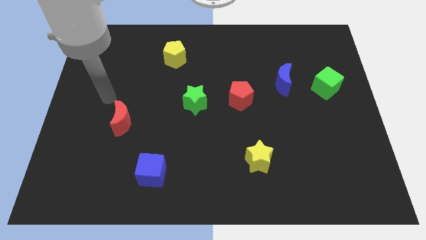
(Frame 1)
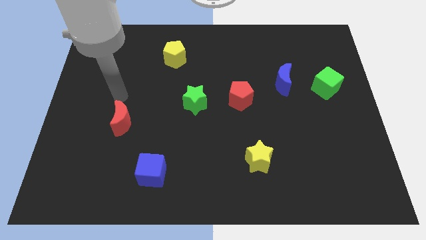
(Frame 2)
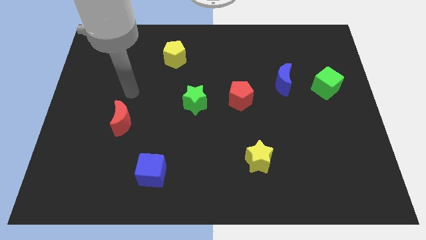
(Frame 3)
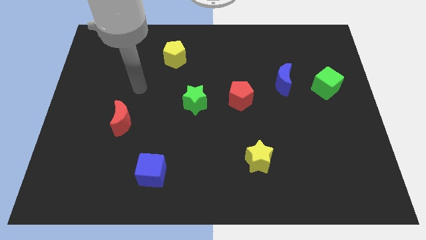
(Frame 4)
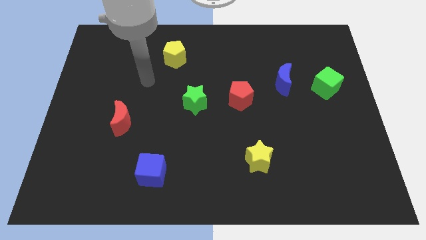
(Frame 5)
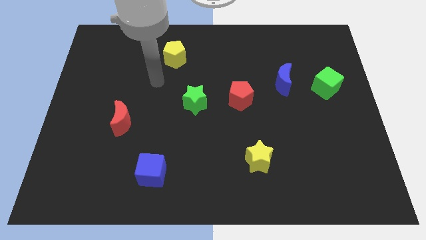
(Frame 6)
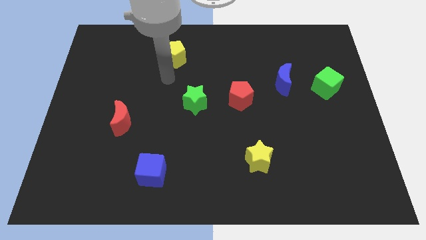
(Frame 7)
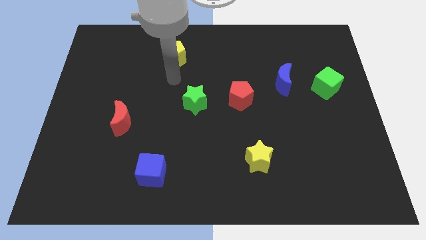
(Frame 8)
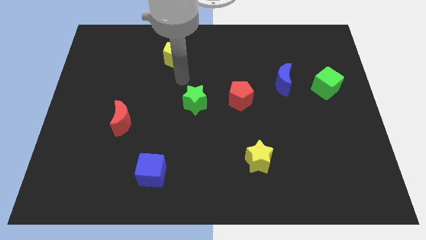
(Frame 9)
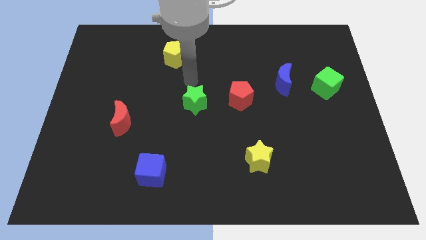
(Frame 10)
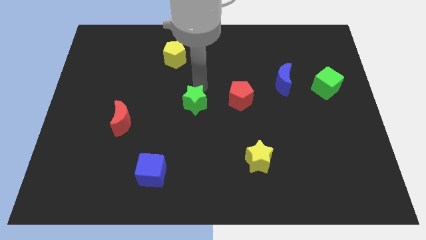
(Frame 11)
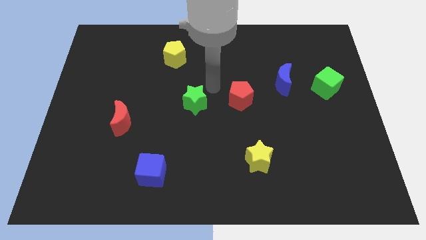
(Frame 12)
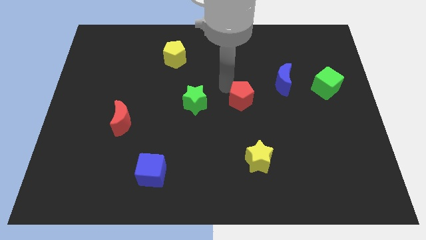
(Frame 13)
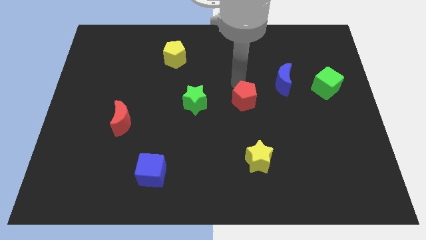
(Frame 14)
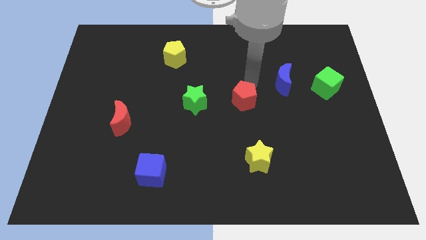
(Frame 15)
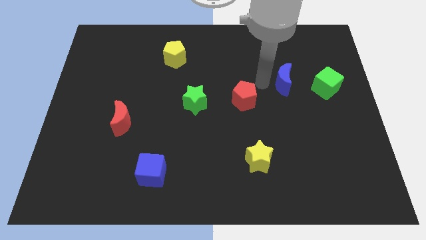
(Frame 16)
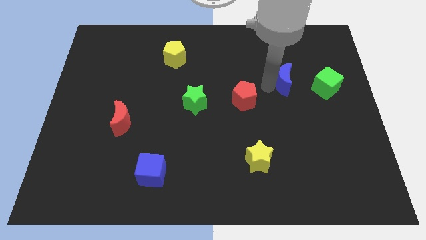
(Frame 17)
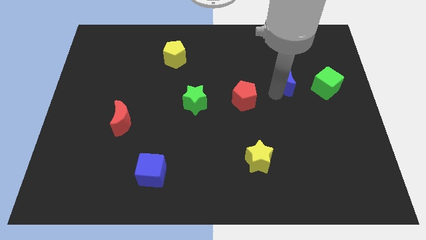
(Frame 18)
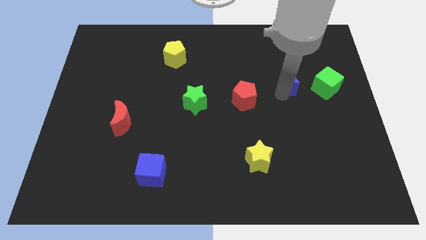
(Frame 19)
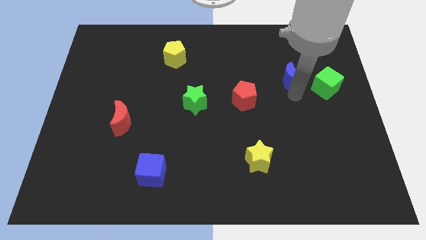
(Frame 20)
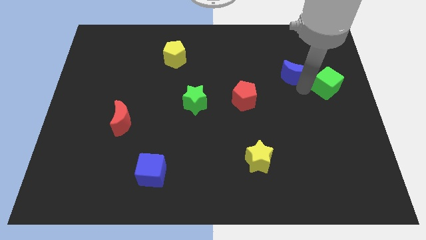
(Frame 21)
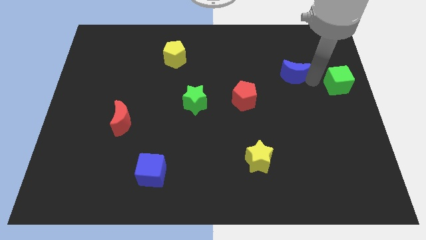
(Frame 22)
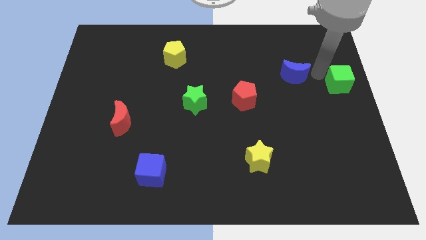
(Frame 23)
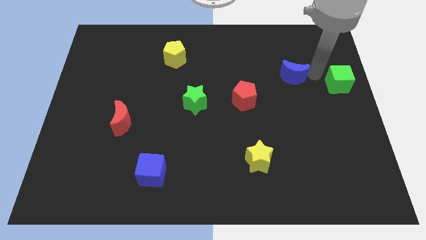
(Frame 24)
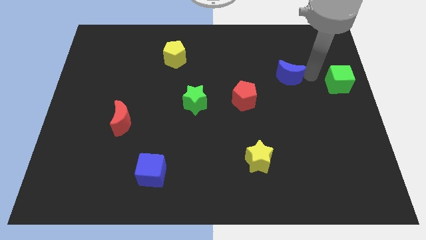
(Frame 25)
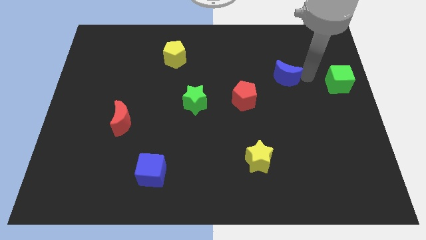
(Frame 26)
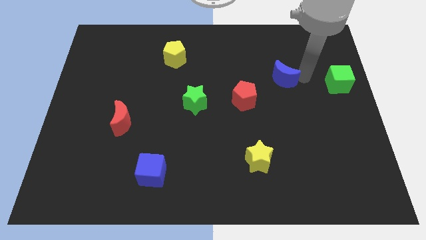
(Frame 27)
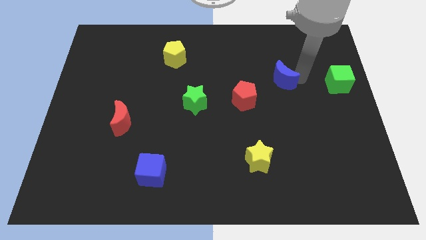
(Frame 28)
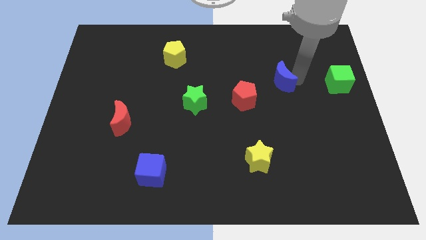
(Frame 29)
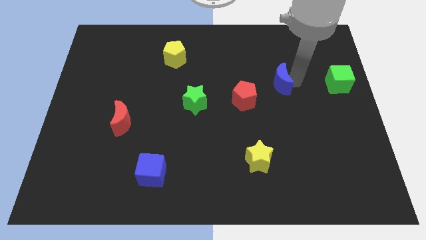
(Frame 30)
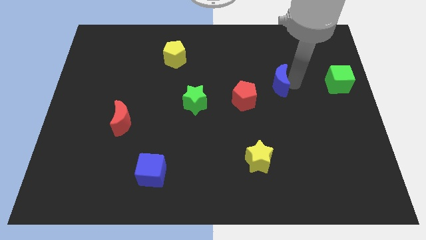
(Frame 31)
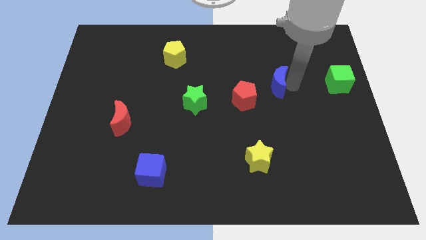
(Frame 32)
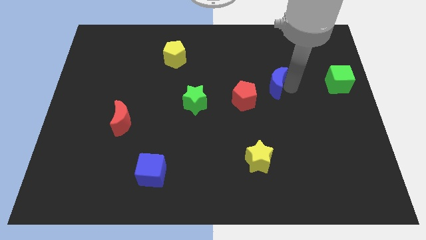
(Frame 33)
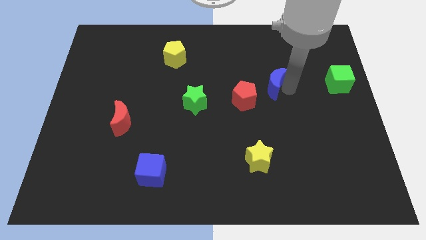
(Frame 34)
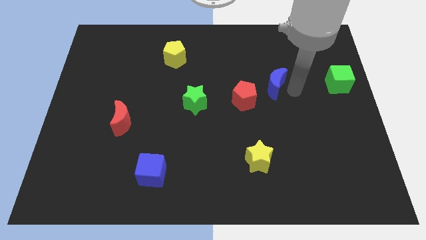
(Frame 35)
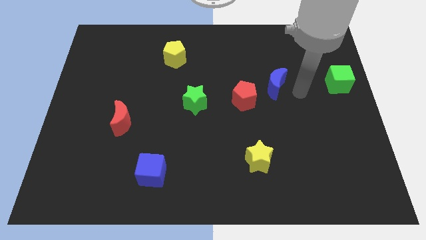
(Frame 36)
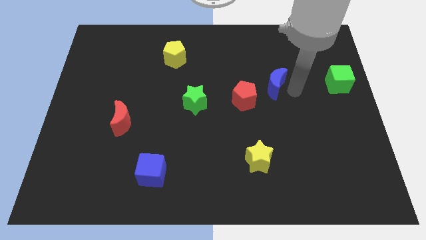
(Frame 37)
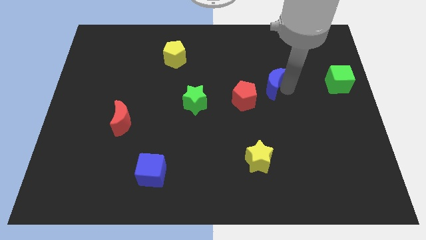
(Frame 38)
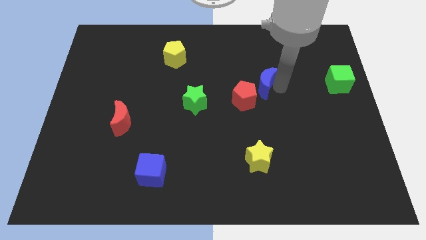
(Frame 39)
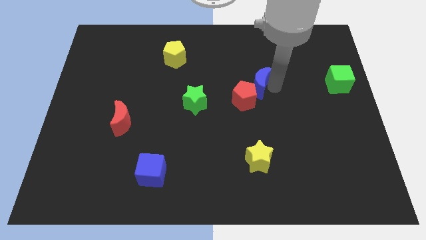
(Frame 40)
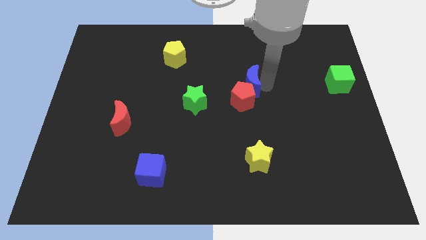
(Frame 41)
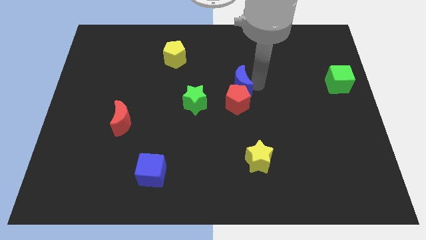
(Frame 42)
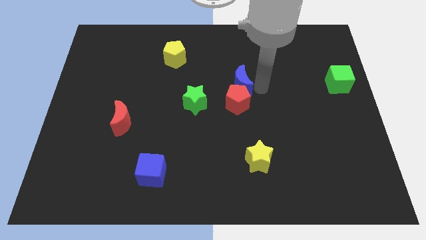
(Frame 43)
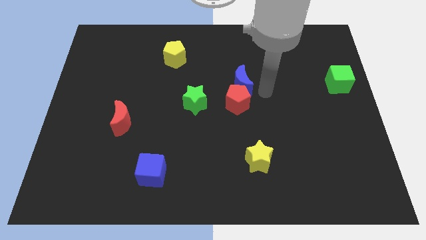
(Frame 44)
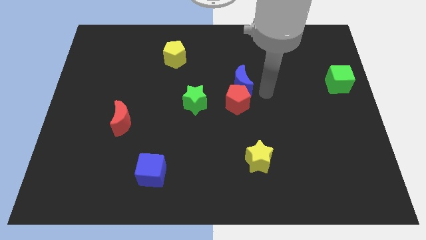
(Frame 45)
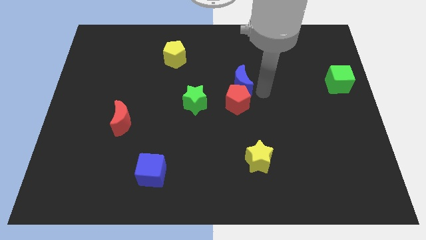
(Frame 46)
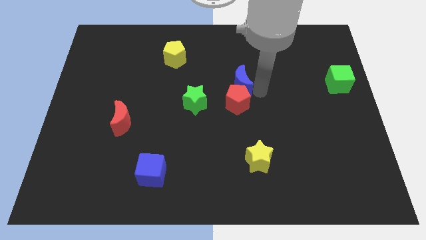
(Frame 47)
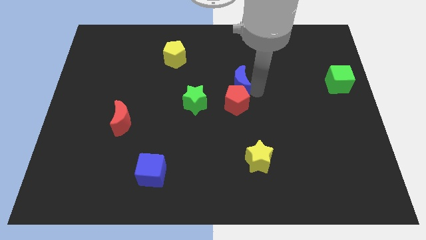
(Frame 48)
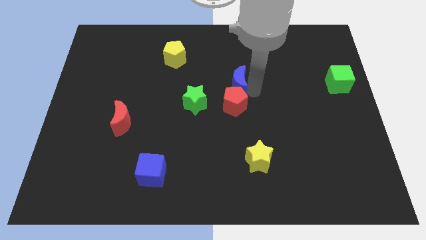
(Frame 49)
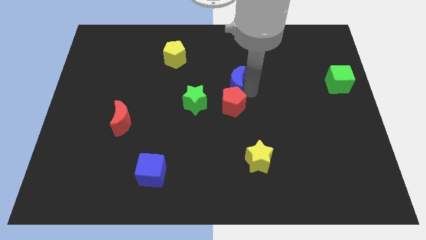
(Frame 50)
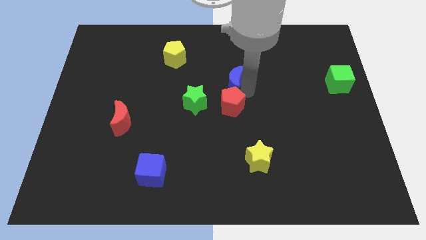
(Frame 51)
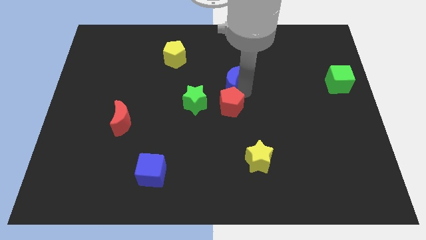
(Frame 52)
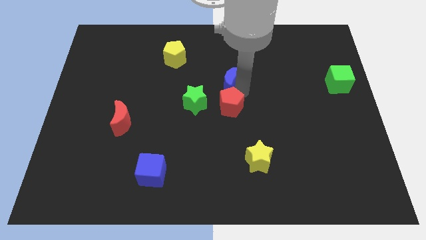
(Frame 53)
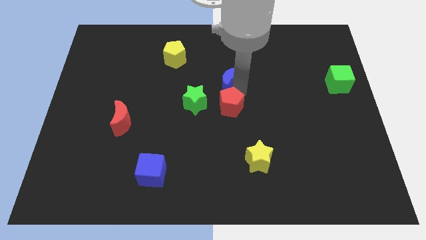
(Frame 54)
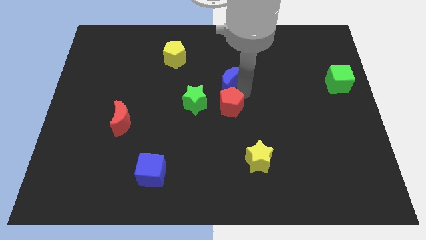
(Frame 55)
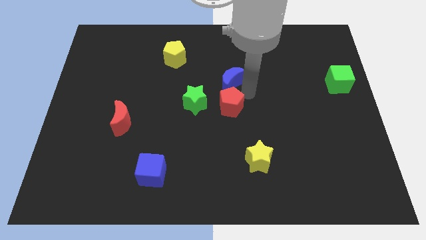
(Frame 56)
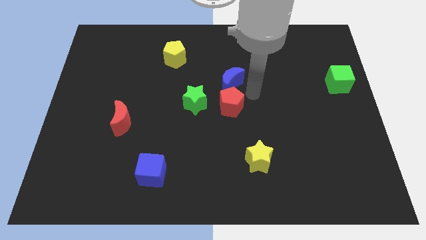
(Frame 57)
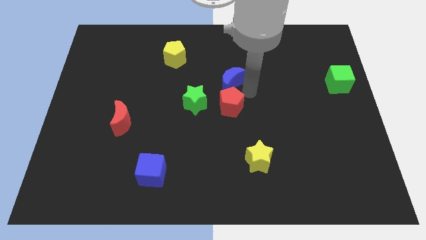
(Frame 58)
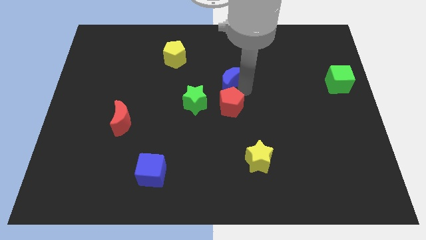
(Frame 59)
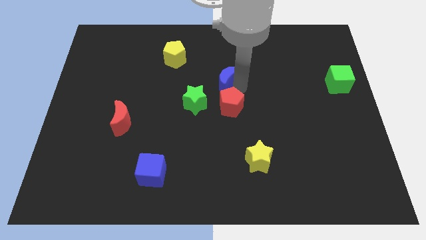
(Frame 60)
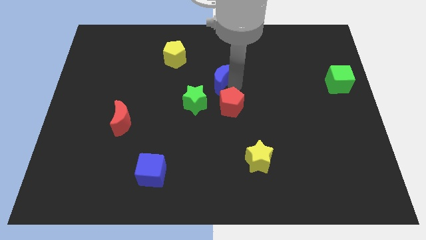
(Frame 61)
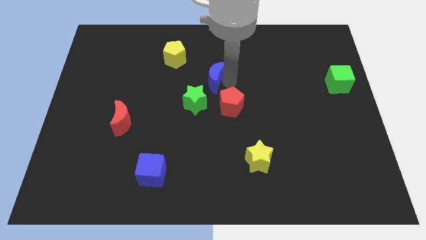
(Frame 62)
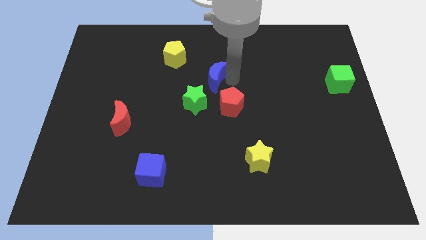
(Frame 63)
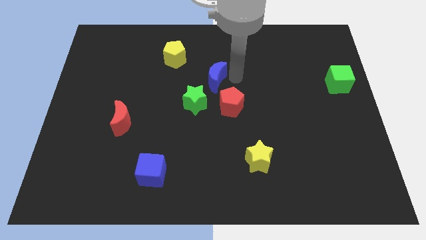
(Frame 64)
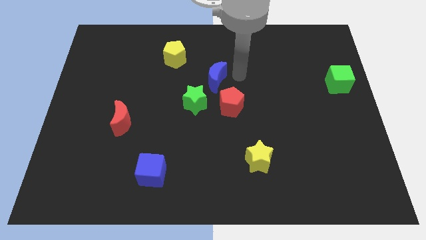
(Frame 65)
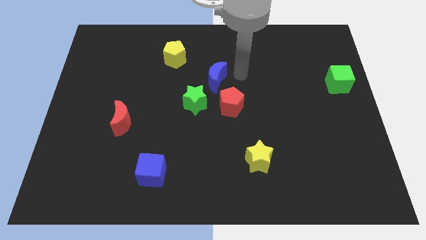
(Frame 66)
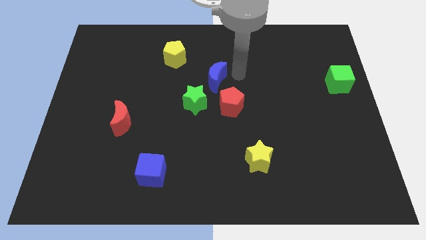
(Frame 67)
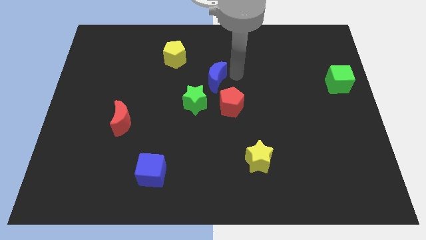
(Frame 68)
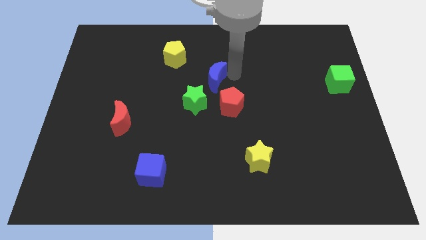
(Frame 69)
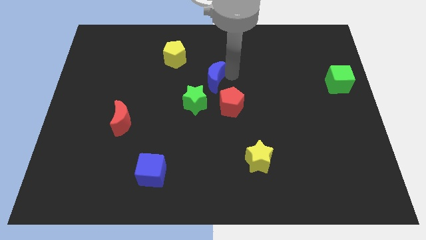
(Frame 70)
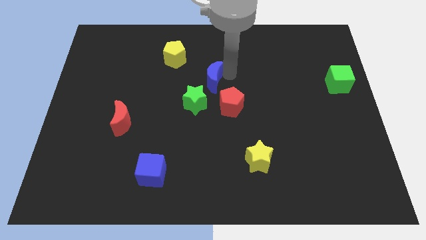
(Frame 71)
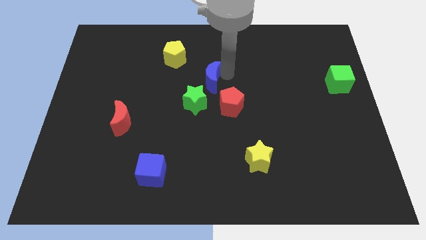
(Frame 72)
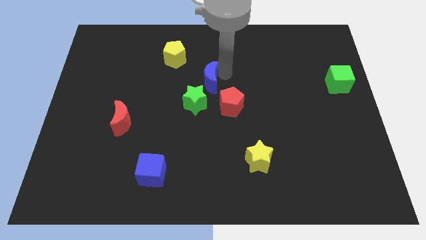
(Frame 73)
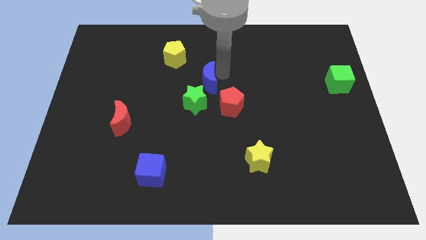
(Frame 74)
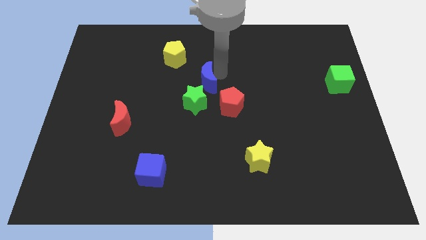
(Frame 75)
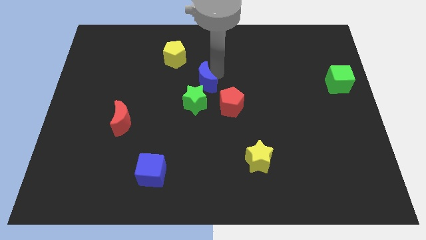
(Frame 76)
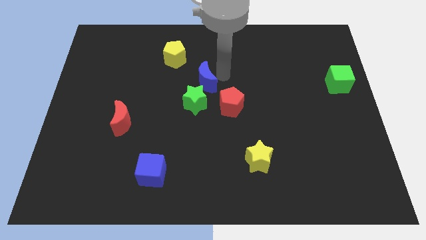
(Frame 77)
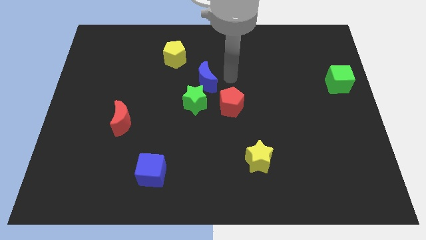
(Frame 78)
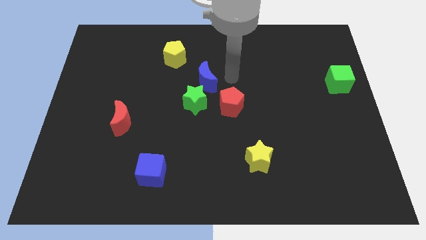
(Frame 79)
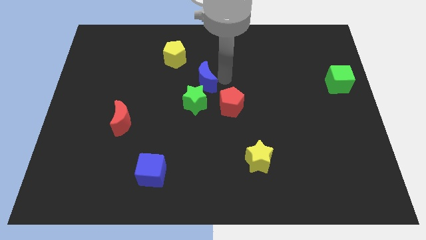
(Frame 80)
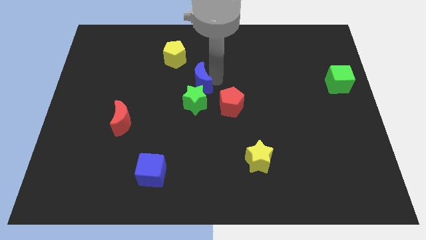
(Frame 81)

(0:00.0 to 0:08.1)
slide the blue moon left
